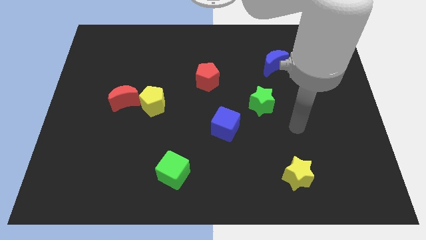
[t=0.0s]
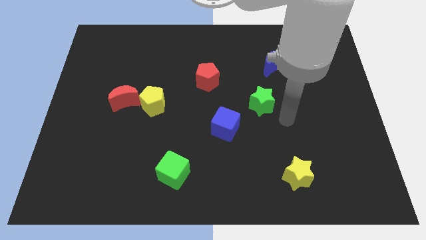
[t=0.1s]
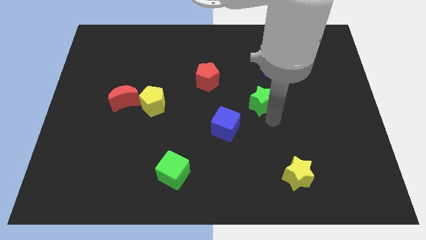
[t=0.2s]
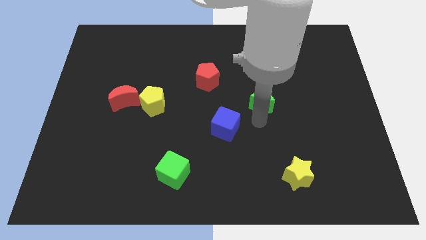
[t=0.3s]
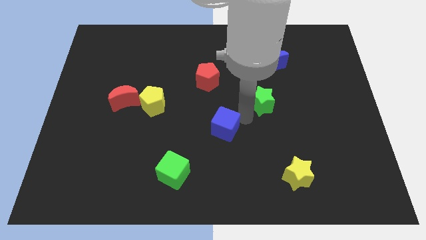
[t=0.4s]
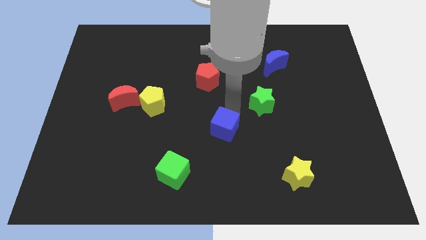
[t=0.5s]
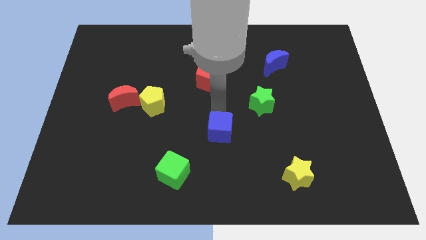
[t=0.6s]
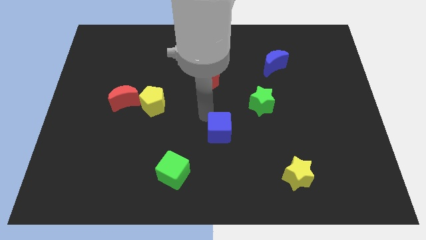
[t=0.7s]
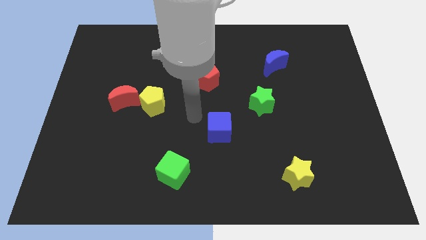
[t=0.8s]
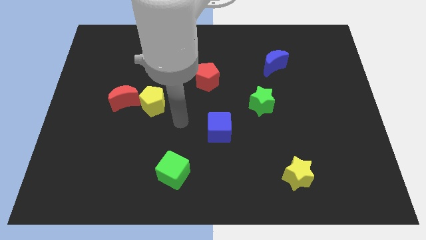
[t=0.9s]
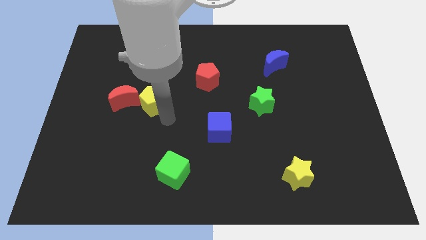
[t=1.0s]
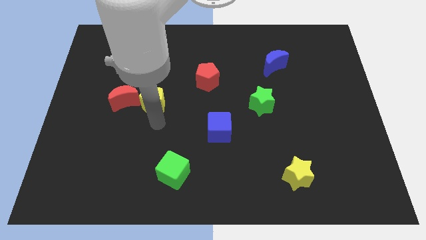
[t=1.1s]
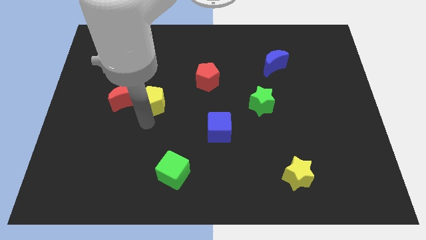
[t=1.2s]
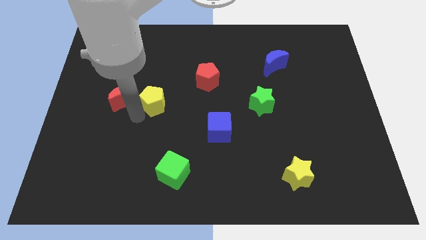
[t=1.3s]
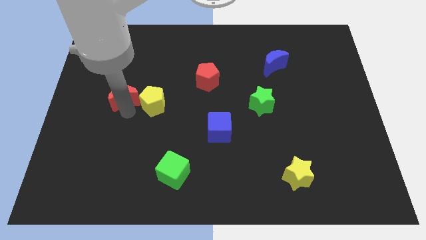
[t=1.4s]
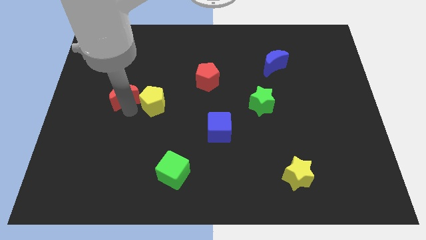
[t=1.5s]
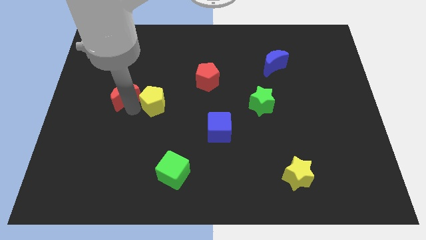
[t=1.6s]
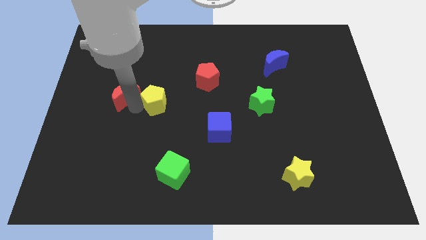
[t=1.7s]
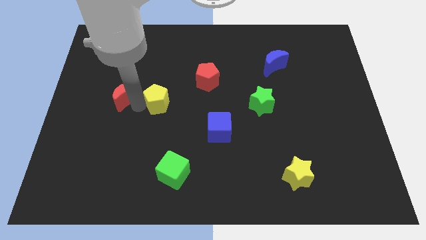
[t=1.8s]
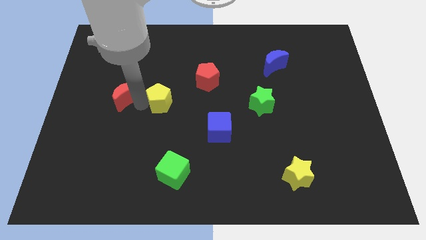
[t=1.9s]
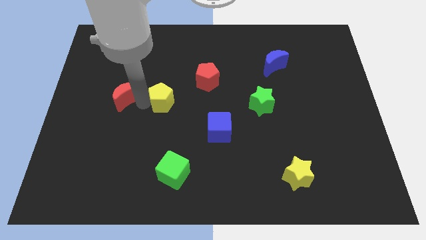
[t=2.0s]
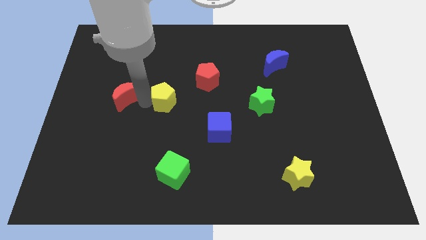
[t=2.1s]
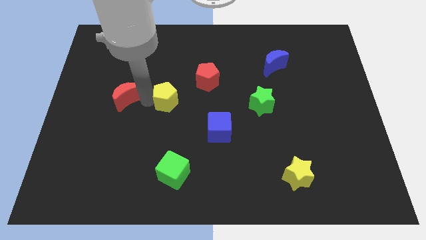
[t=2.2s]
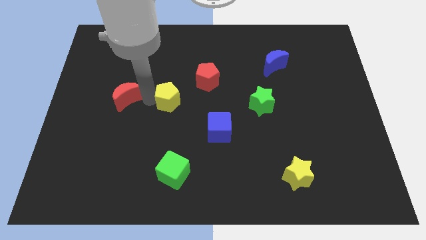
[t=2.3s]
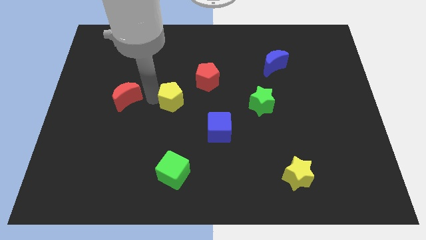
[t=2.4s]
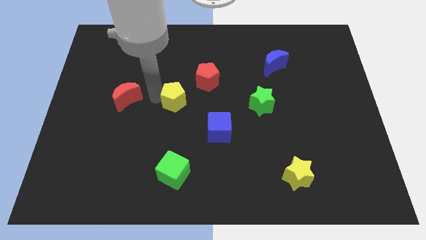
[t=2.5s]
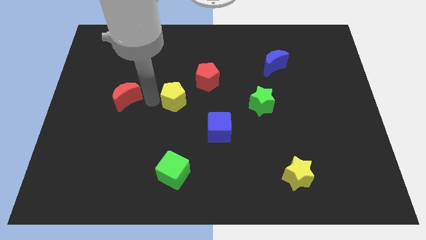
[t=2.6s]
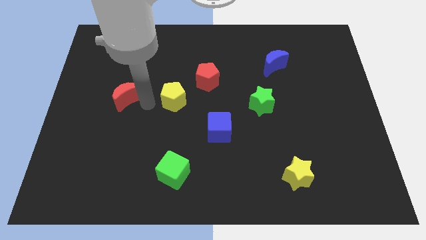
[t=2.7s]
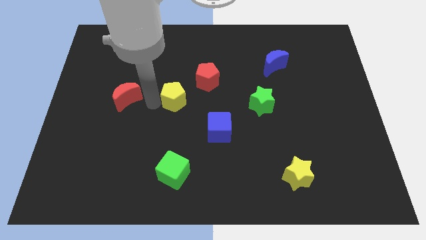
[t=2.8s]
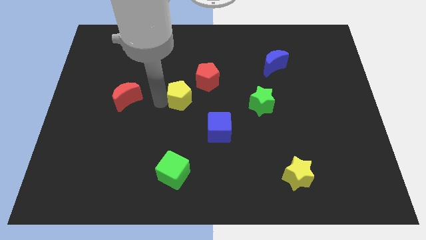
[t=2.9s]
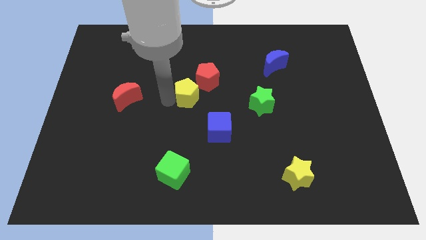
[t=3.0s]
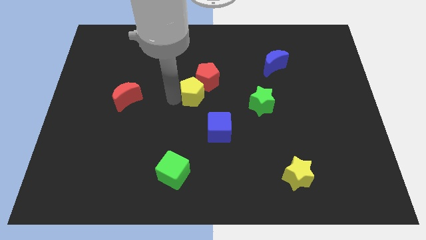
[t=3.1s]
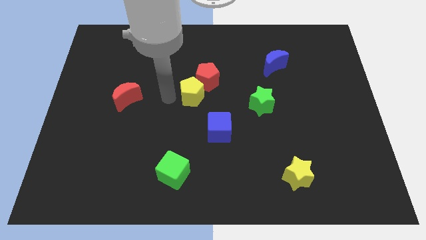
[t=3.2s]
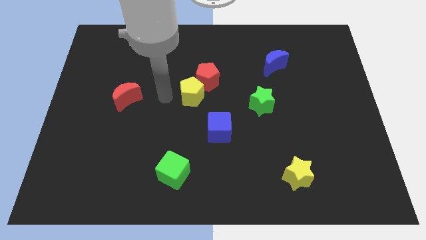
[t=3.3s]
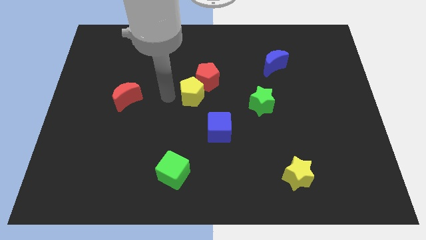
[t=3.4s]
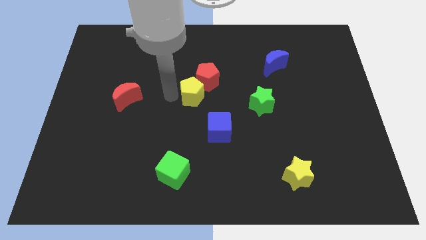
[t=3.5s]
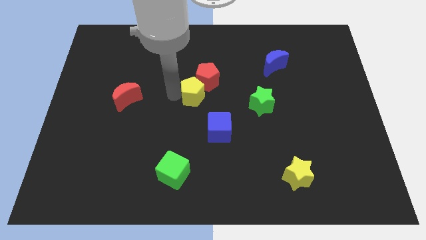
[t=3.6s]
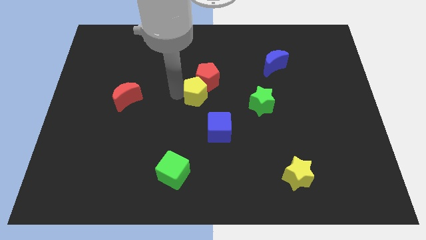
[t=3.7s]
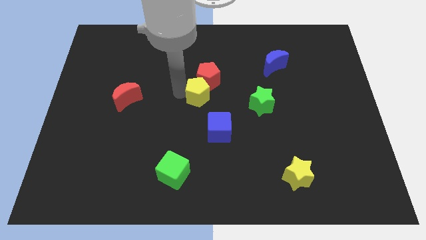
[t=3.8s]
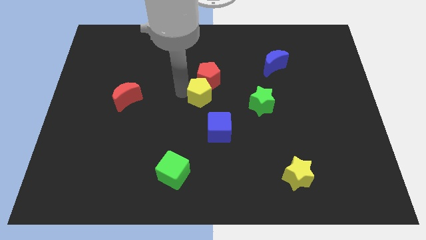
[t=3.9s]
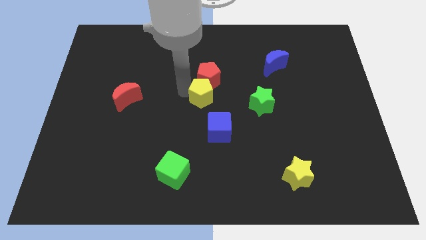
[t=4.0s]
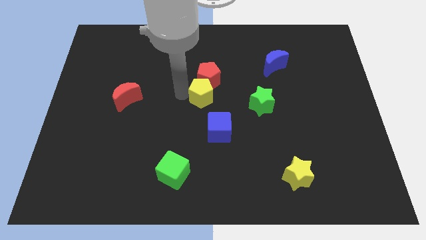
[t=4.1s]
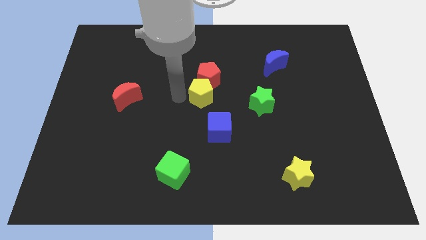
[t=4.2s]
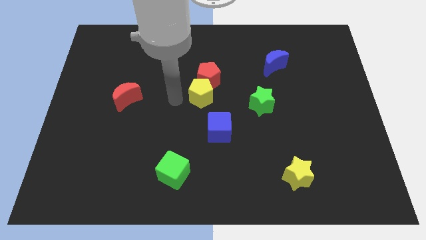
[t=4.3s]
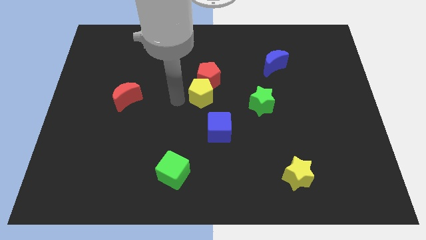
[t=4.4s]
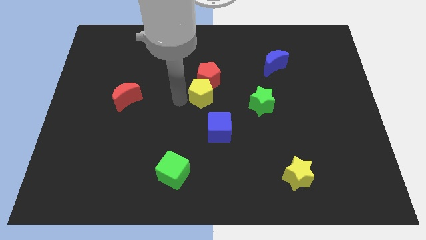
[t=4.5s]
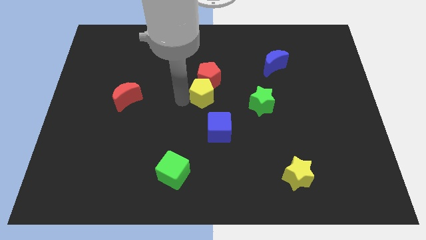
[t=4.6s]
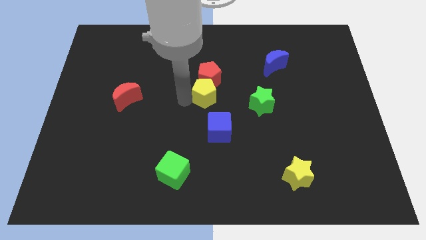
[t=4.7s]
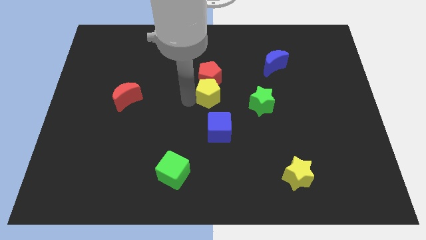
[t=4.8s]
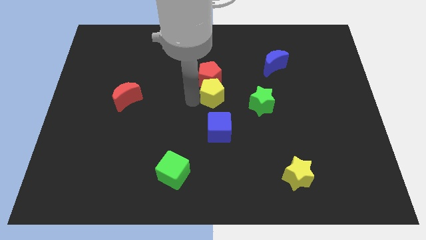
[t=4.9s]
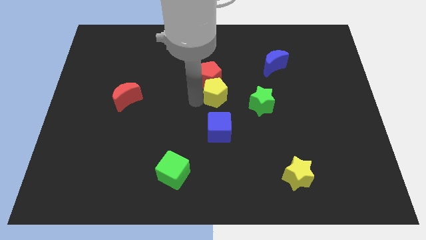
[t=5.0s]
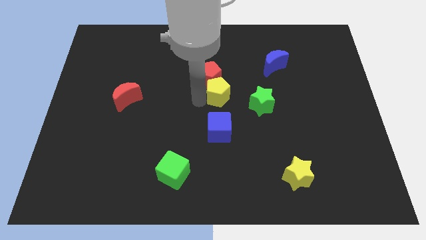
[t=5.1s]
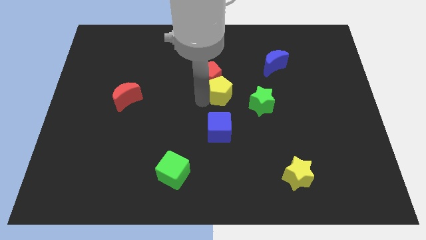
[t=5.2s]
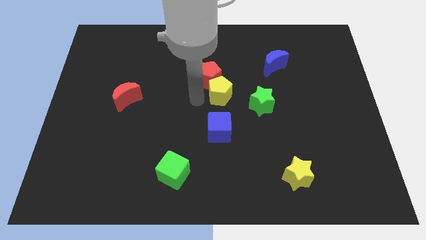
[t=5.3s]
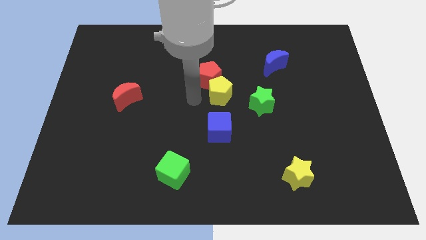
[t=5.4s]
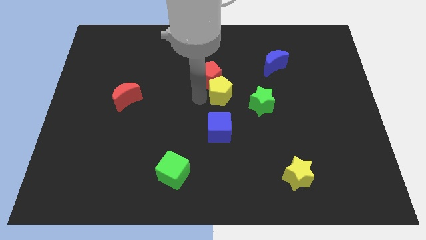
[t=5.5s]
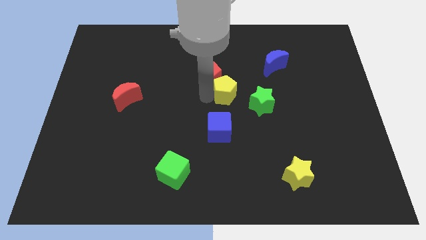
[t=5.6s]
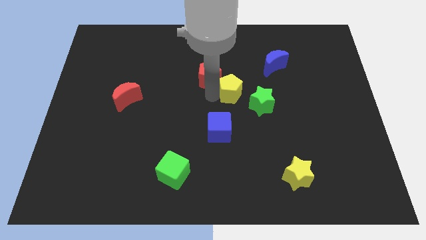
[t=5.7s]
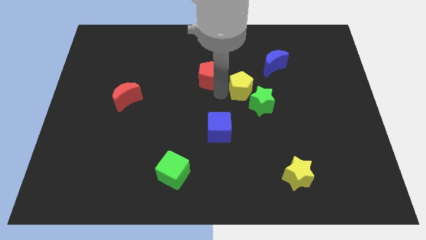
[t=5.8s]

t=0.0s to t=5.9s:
slide the yellow pentagon to the right

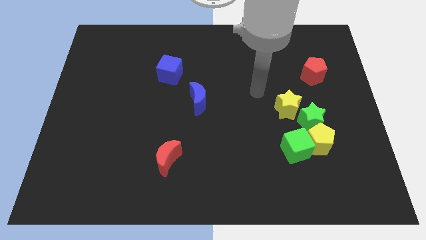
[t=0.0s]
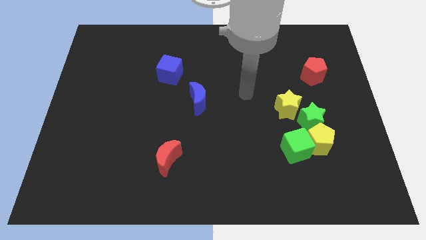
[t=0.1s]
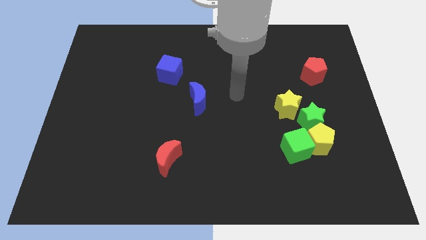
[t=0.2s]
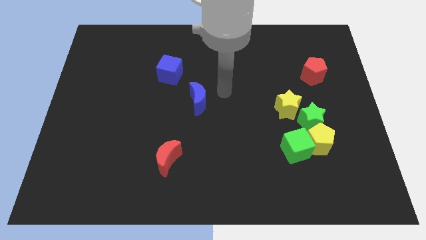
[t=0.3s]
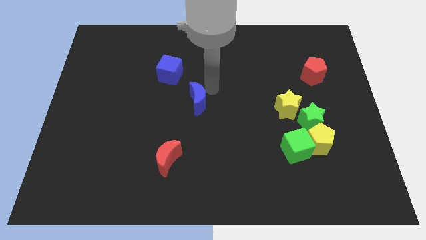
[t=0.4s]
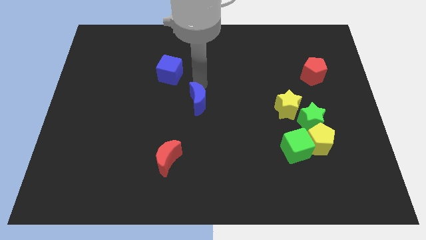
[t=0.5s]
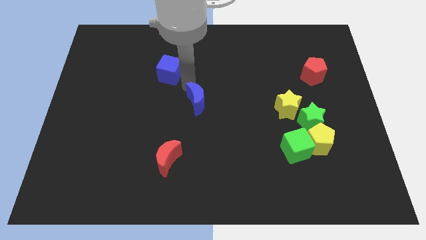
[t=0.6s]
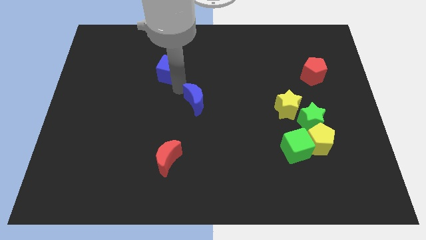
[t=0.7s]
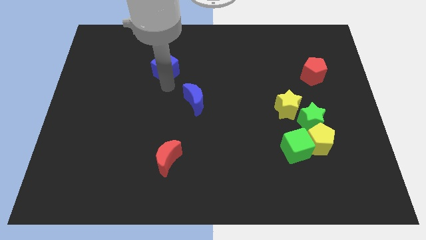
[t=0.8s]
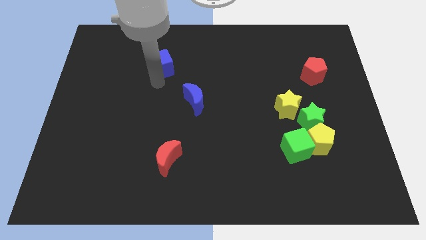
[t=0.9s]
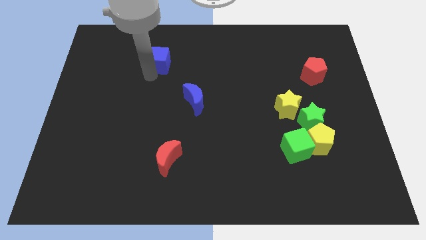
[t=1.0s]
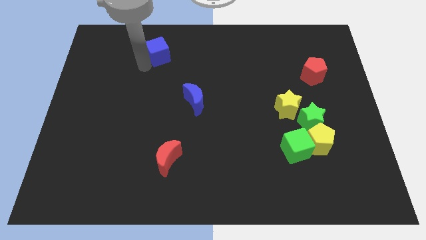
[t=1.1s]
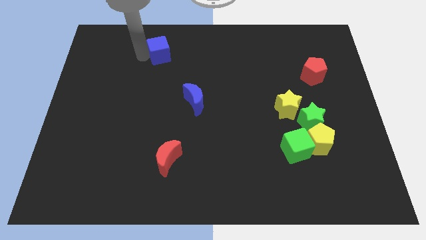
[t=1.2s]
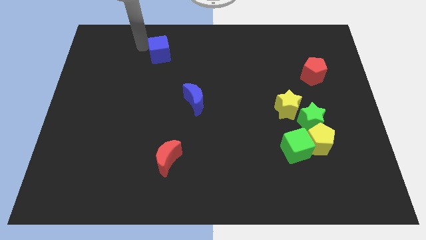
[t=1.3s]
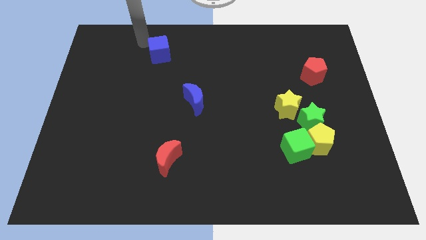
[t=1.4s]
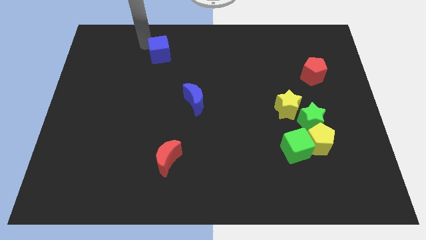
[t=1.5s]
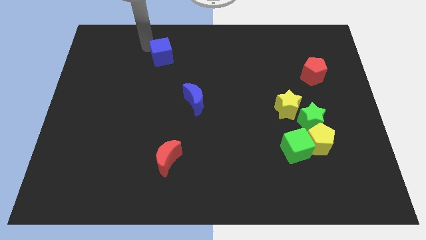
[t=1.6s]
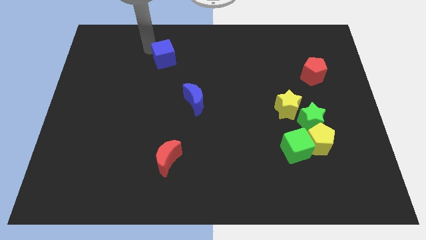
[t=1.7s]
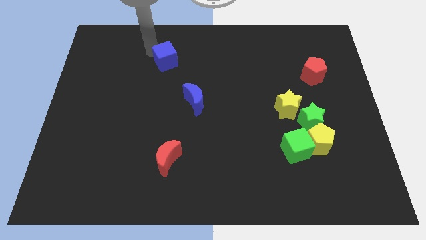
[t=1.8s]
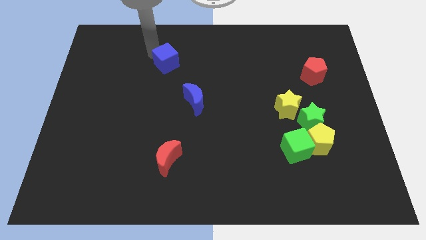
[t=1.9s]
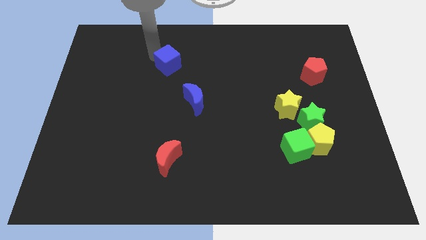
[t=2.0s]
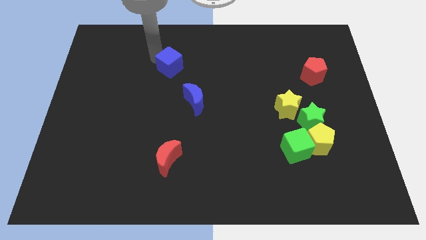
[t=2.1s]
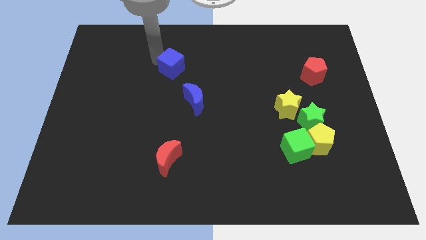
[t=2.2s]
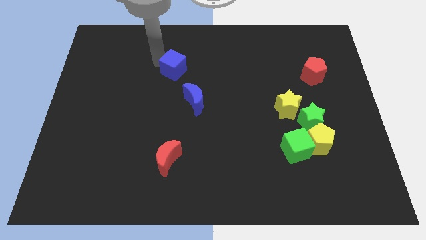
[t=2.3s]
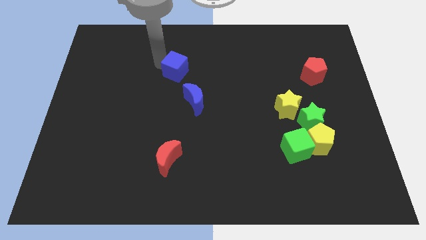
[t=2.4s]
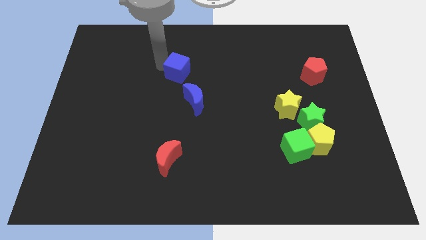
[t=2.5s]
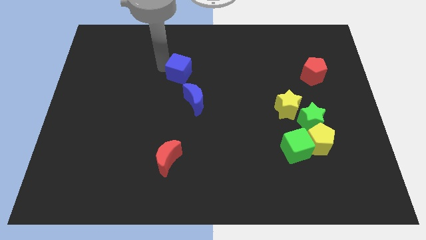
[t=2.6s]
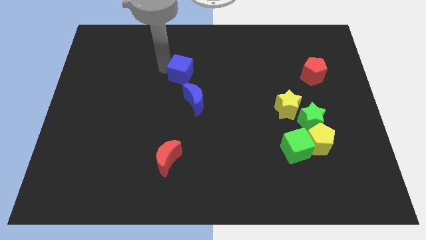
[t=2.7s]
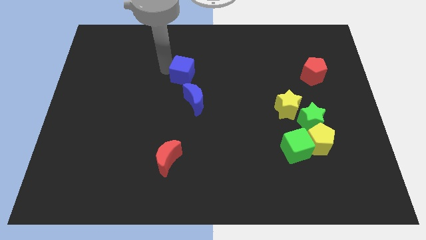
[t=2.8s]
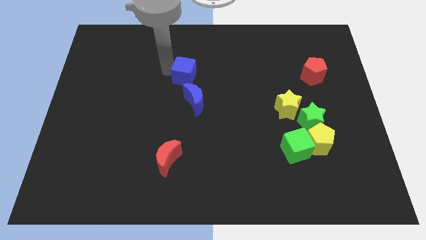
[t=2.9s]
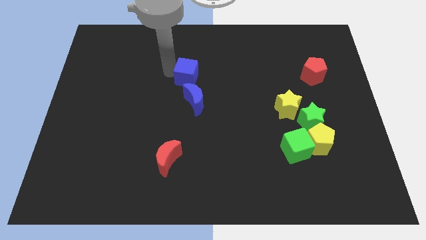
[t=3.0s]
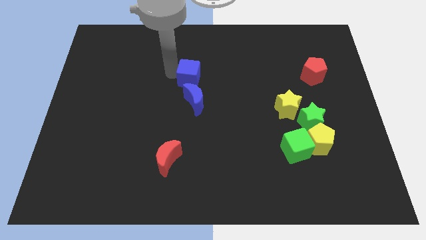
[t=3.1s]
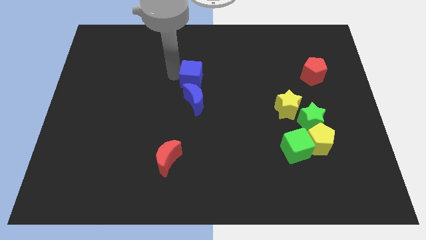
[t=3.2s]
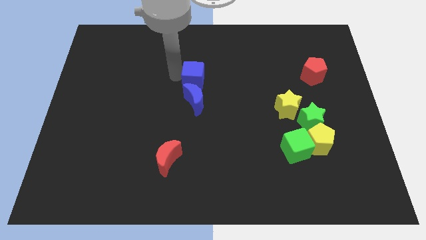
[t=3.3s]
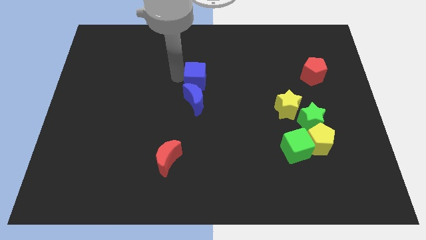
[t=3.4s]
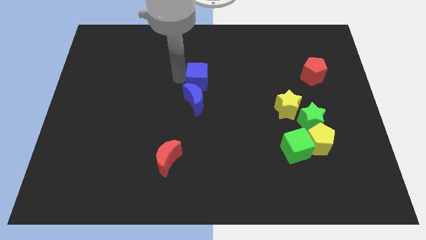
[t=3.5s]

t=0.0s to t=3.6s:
slightly move the blue cube right
